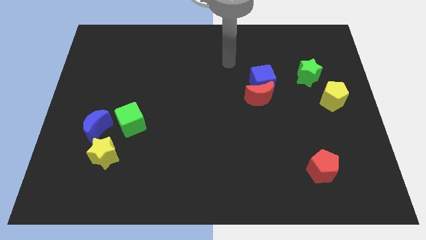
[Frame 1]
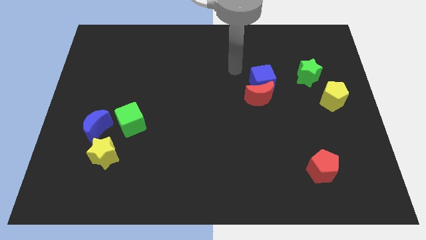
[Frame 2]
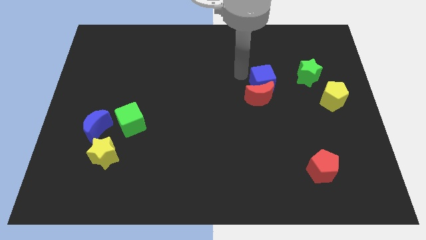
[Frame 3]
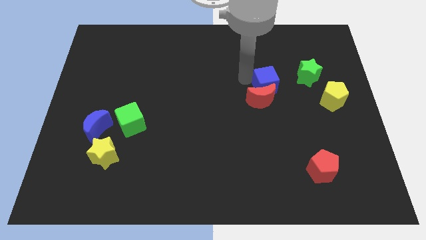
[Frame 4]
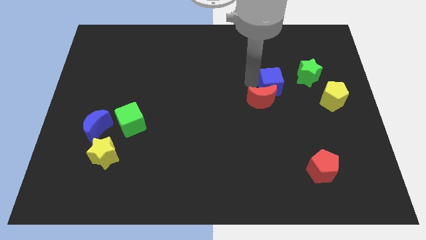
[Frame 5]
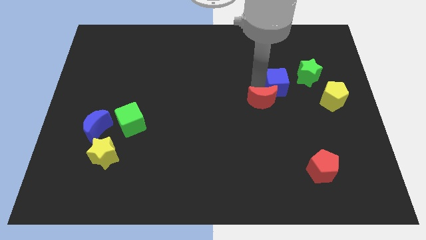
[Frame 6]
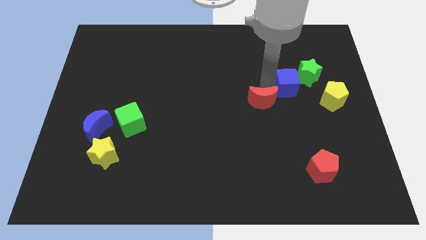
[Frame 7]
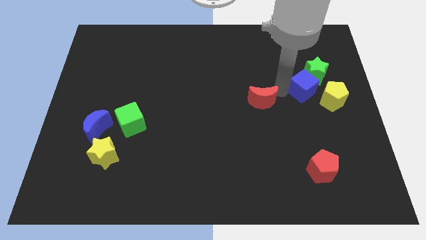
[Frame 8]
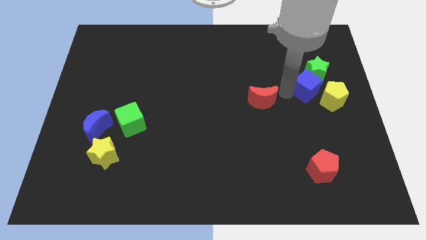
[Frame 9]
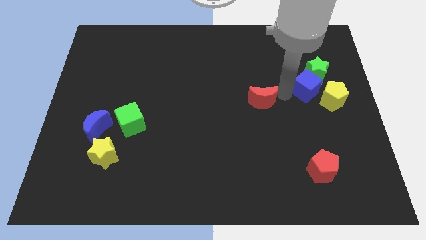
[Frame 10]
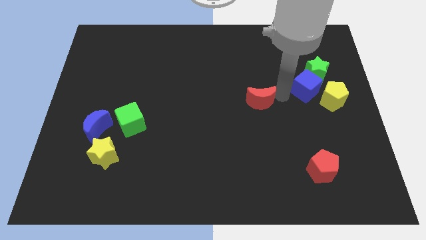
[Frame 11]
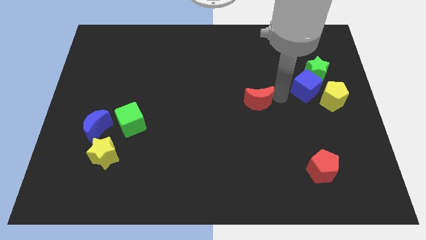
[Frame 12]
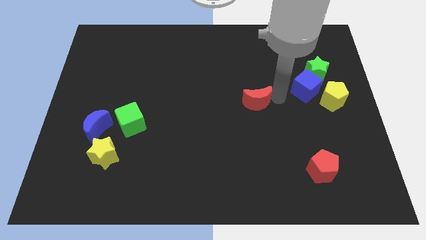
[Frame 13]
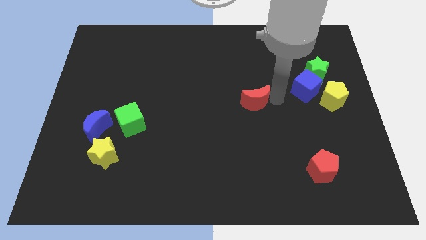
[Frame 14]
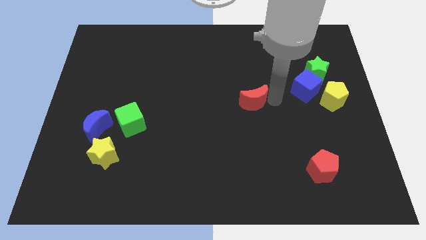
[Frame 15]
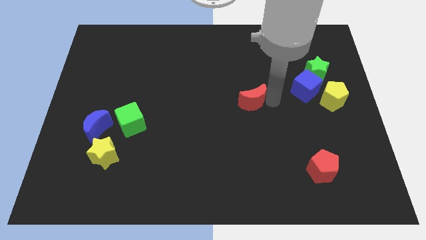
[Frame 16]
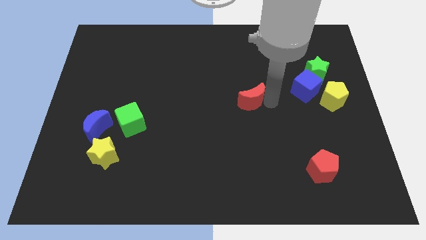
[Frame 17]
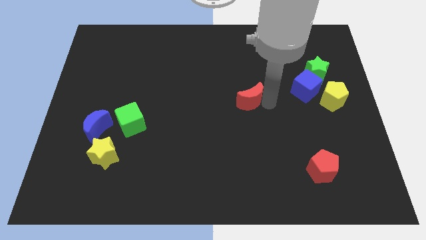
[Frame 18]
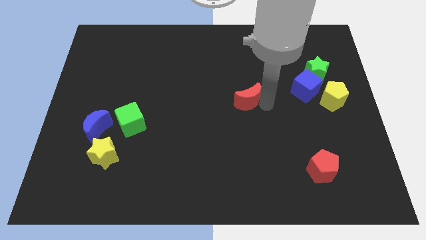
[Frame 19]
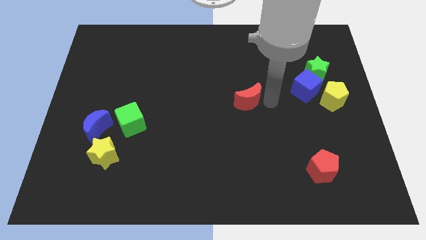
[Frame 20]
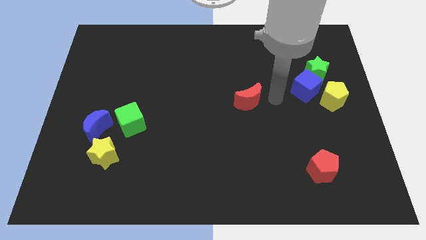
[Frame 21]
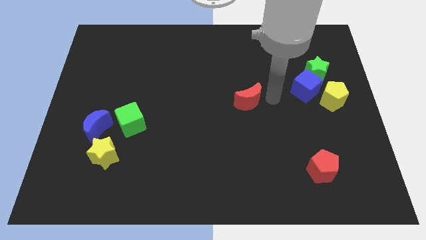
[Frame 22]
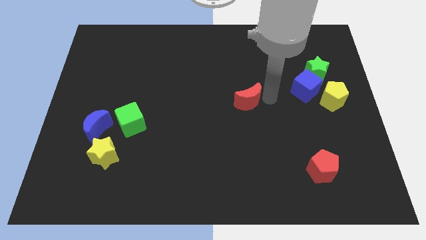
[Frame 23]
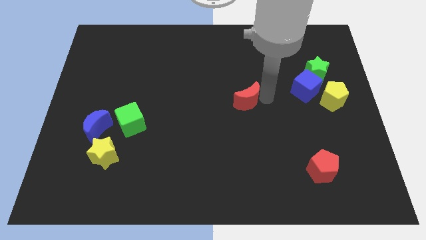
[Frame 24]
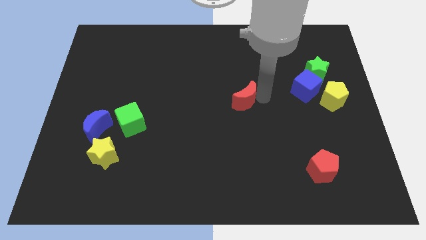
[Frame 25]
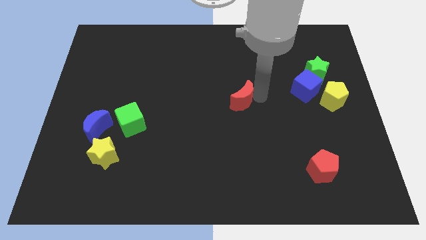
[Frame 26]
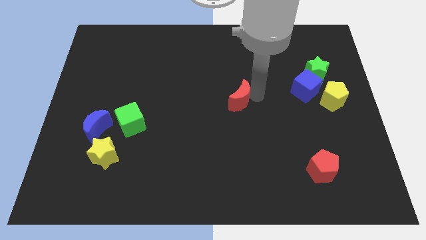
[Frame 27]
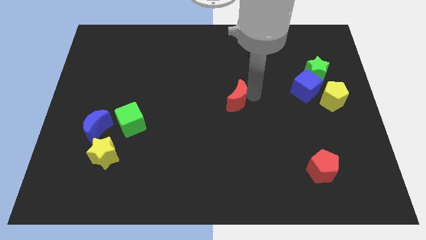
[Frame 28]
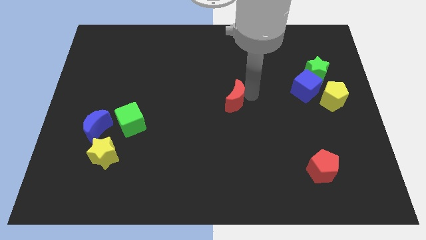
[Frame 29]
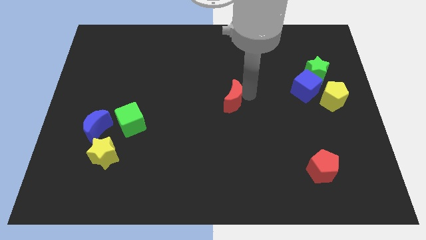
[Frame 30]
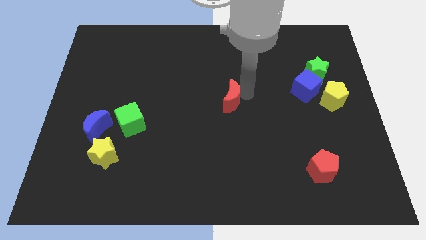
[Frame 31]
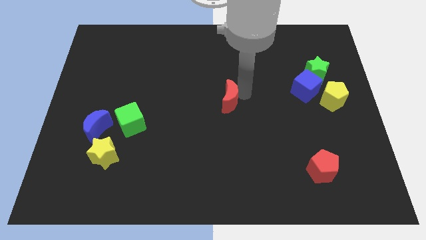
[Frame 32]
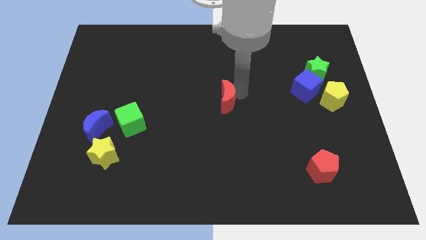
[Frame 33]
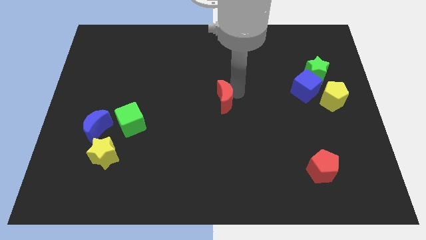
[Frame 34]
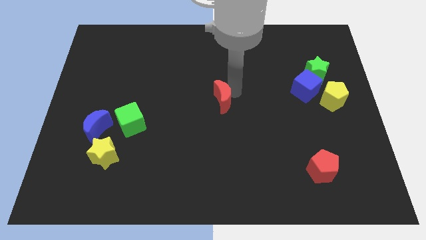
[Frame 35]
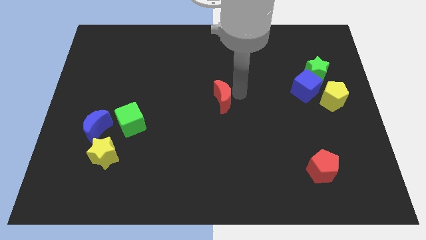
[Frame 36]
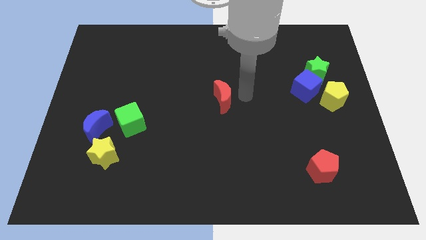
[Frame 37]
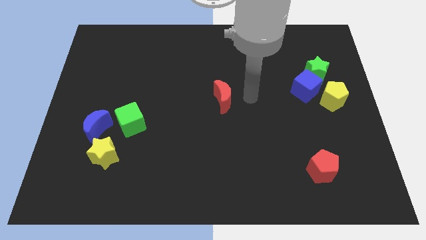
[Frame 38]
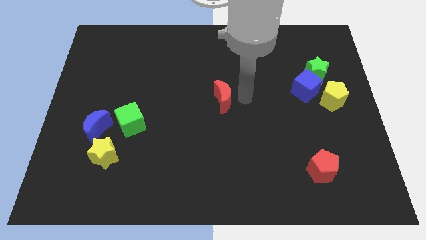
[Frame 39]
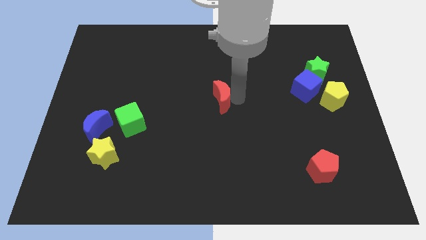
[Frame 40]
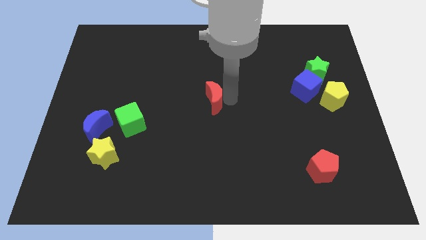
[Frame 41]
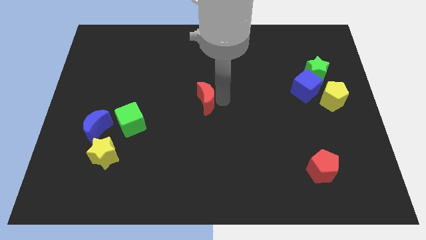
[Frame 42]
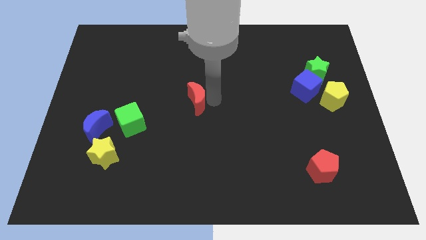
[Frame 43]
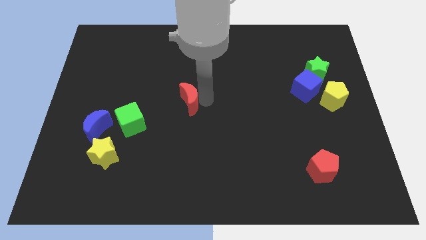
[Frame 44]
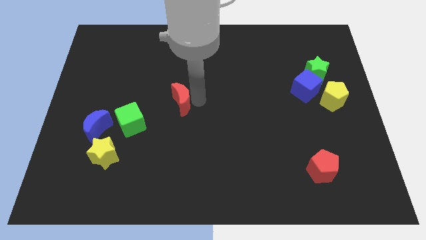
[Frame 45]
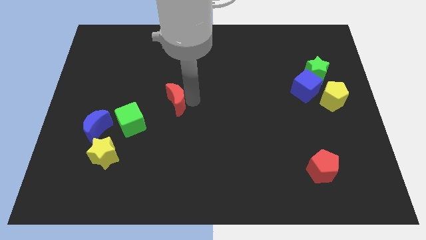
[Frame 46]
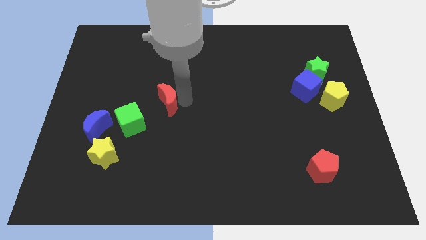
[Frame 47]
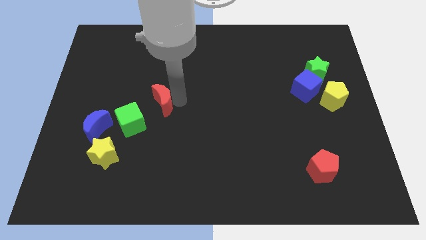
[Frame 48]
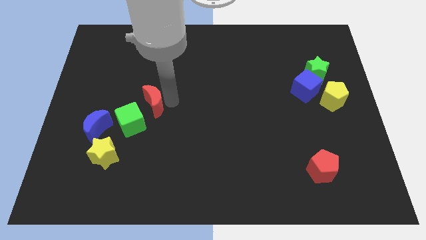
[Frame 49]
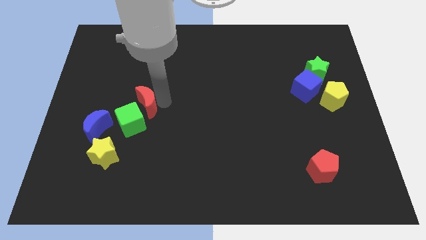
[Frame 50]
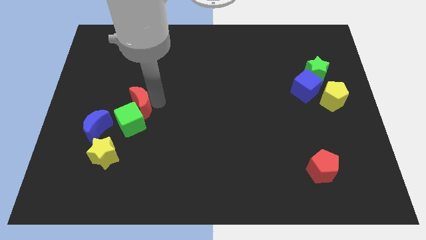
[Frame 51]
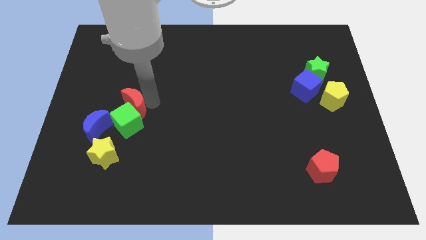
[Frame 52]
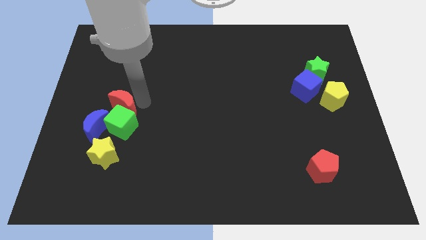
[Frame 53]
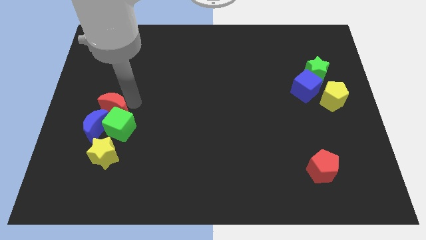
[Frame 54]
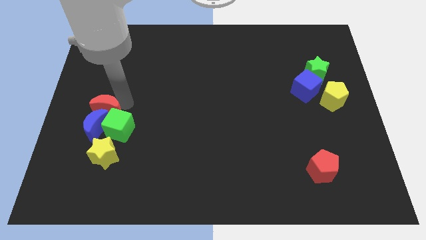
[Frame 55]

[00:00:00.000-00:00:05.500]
put the red moon towards the blue moon

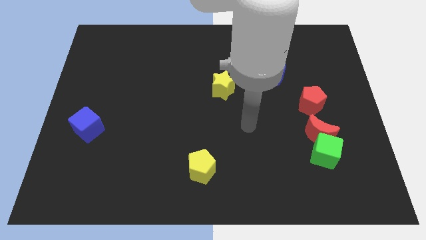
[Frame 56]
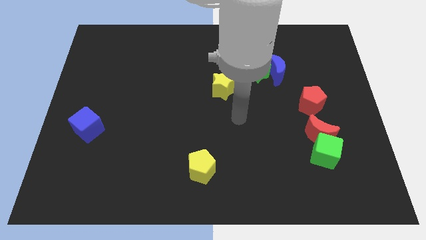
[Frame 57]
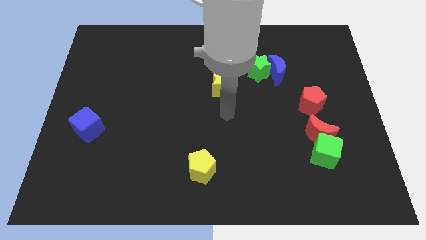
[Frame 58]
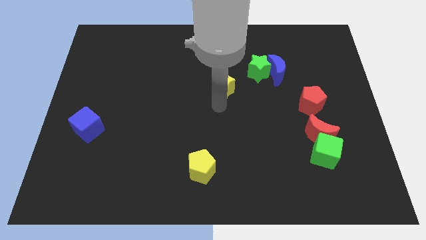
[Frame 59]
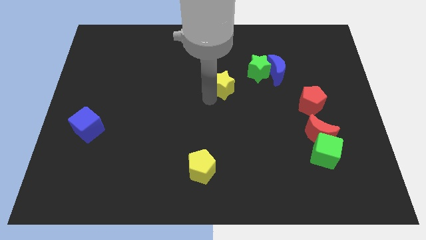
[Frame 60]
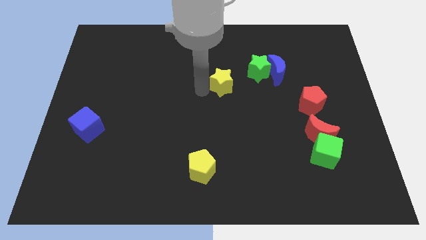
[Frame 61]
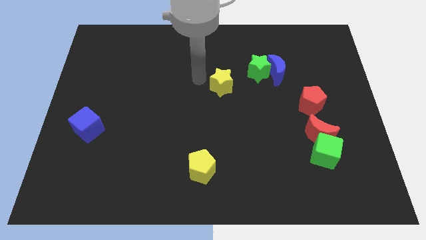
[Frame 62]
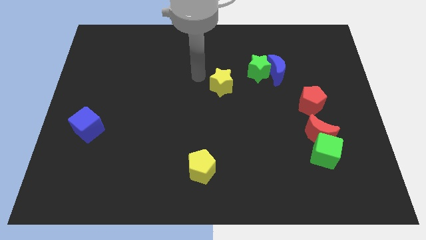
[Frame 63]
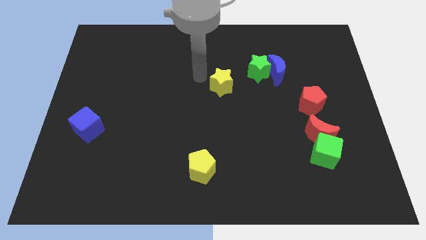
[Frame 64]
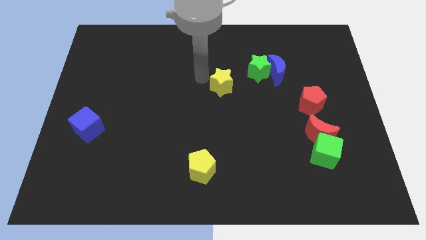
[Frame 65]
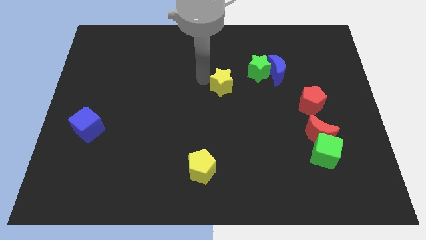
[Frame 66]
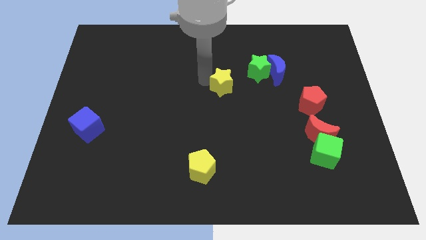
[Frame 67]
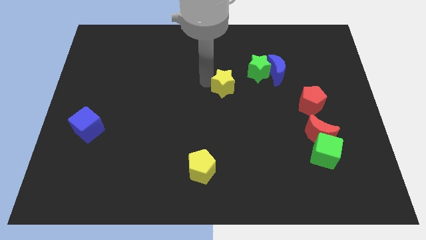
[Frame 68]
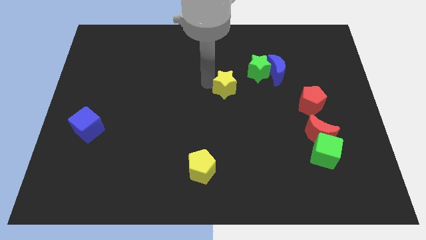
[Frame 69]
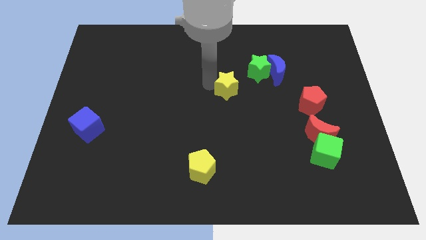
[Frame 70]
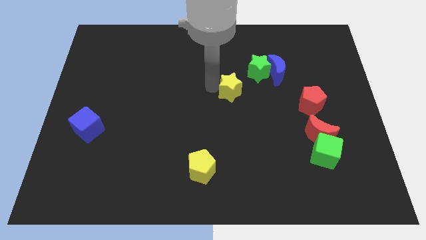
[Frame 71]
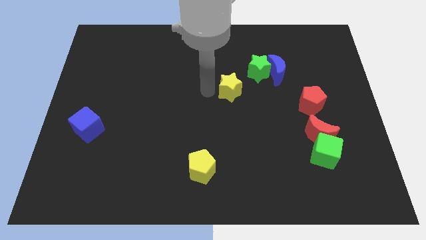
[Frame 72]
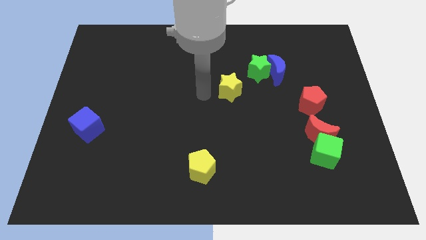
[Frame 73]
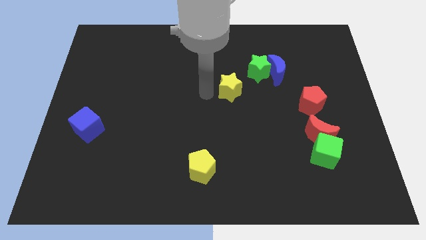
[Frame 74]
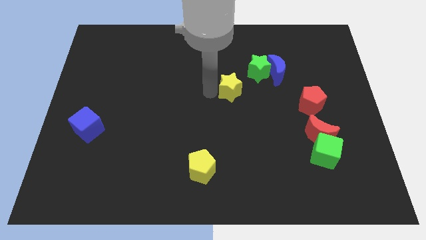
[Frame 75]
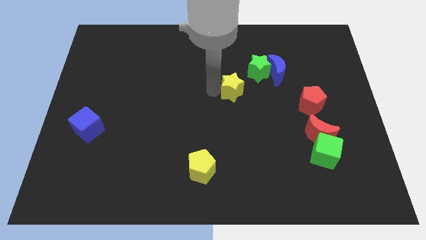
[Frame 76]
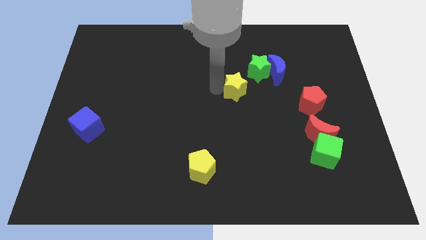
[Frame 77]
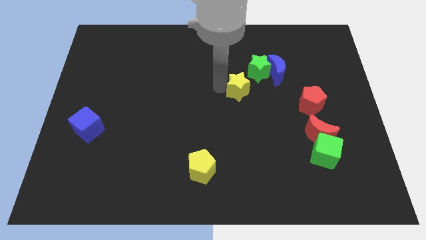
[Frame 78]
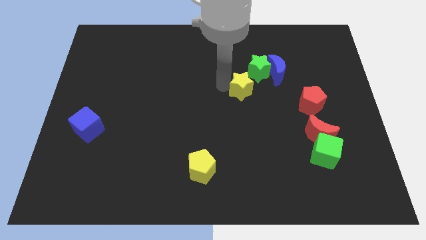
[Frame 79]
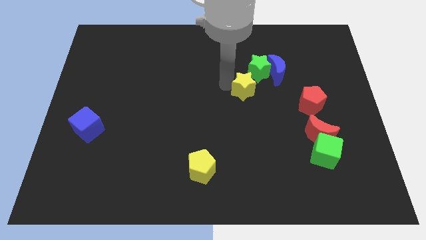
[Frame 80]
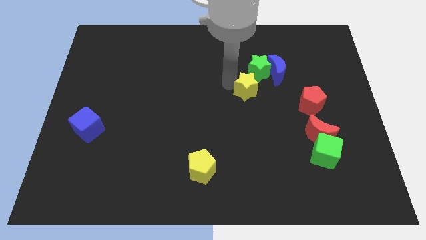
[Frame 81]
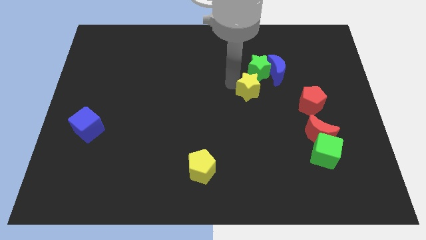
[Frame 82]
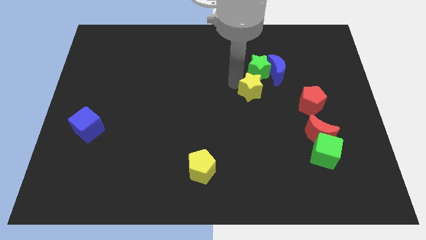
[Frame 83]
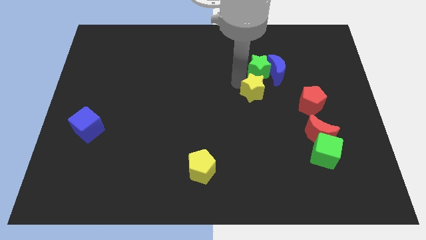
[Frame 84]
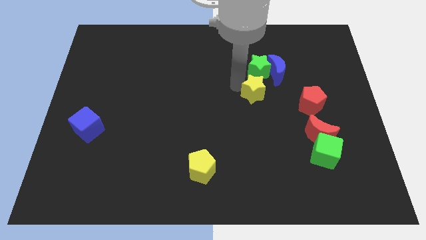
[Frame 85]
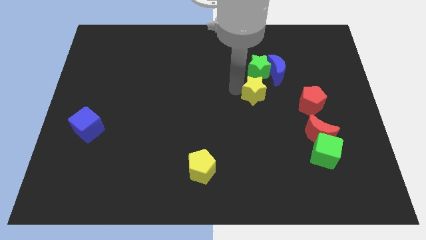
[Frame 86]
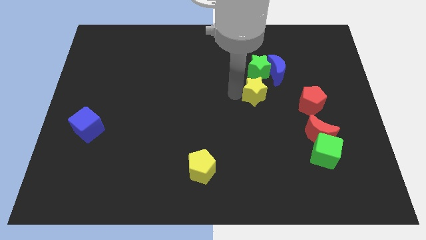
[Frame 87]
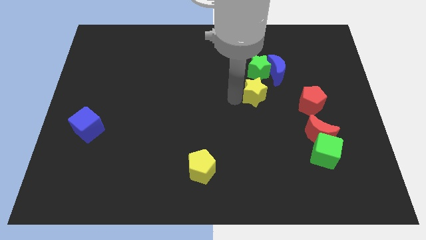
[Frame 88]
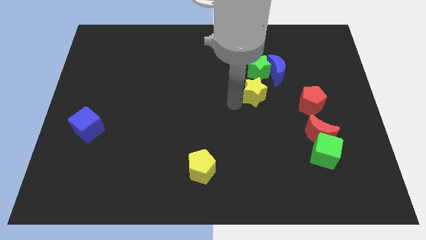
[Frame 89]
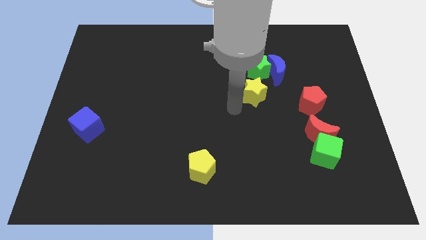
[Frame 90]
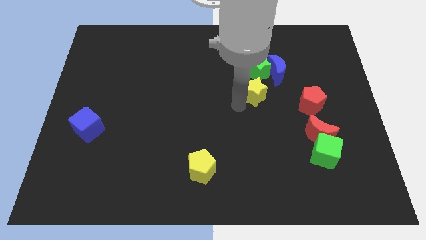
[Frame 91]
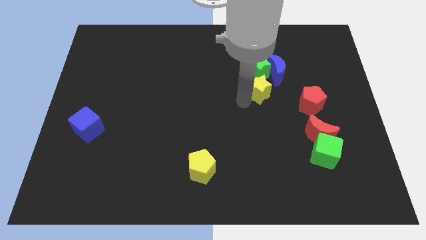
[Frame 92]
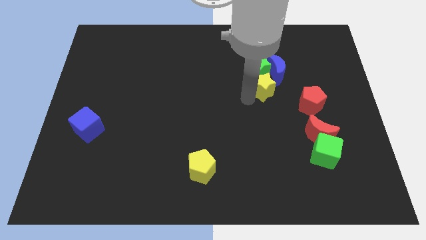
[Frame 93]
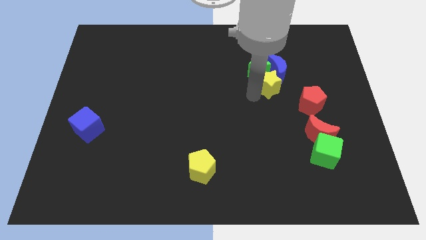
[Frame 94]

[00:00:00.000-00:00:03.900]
put the yellow star close to the blue moon
